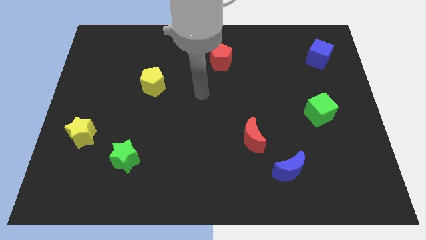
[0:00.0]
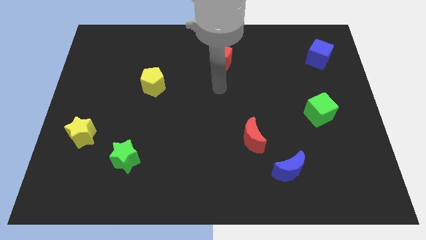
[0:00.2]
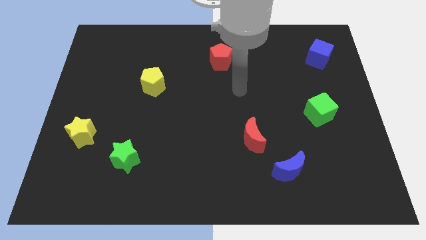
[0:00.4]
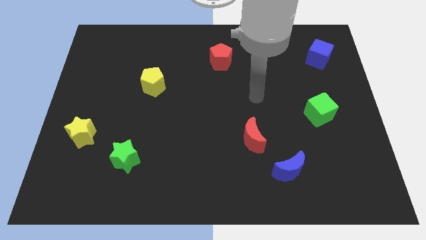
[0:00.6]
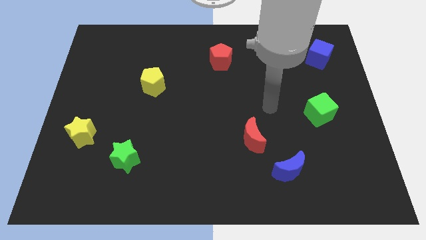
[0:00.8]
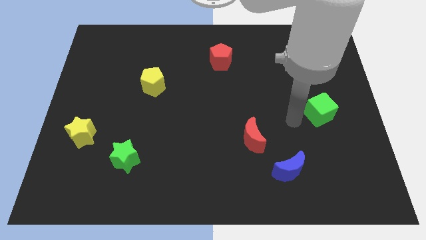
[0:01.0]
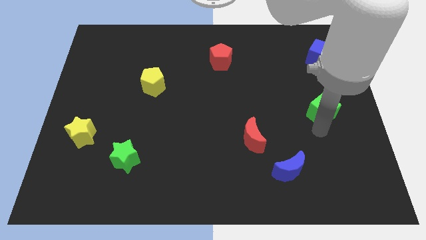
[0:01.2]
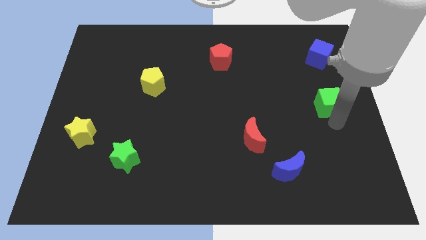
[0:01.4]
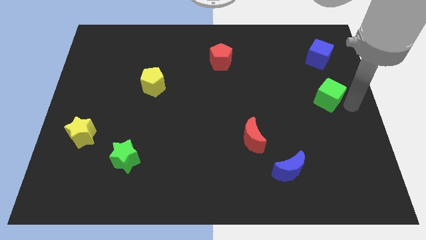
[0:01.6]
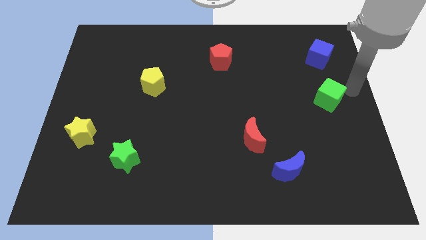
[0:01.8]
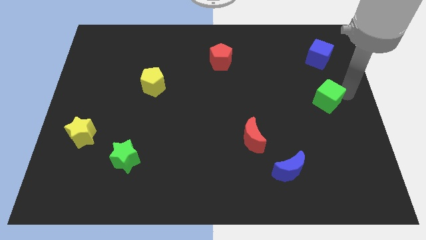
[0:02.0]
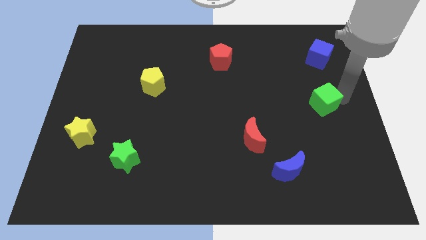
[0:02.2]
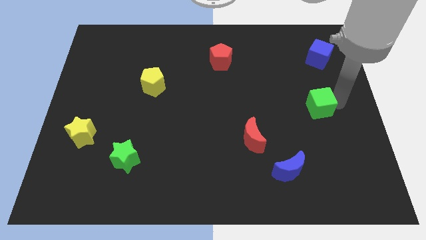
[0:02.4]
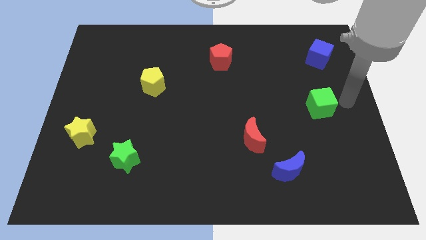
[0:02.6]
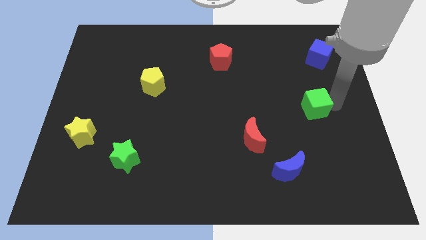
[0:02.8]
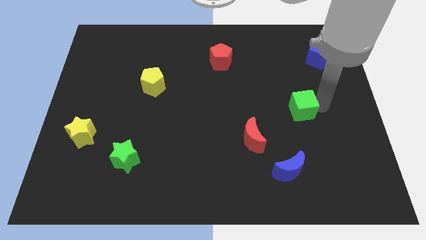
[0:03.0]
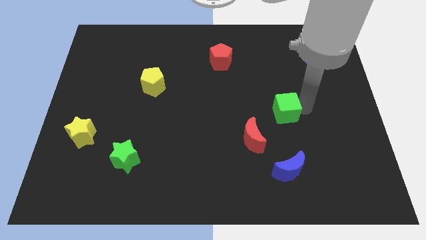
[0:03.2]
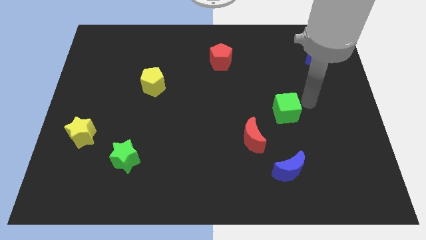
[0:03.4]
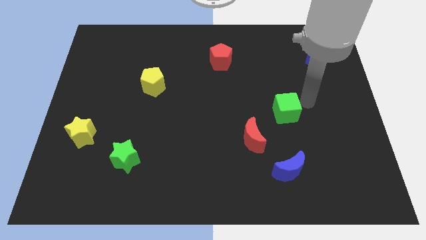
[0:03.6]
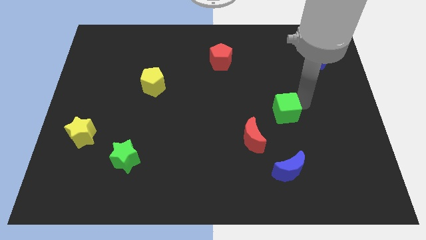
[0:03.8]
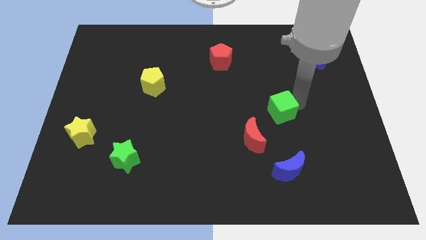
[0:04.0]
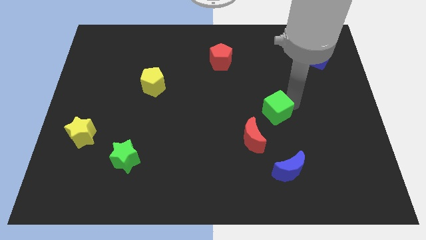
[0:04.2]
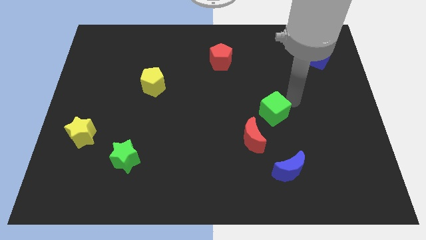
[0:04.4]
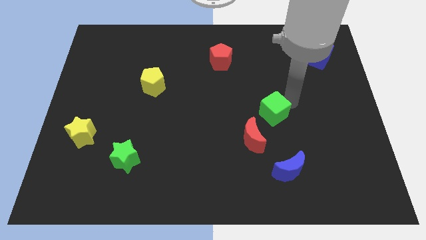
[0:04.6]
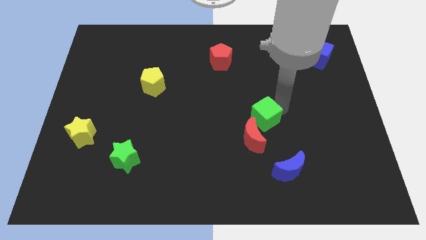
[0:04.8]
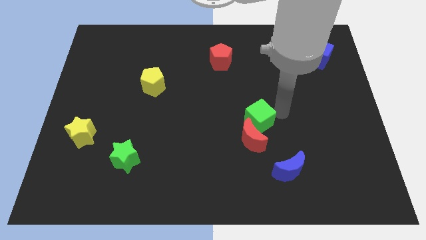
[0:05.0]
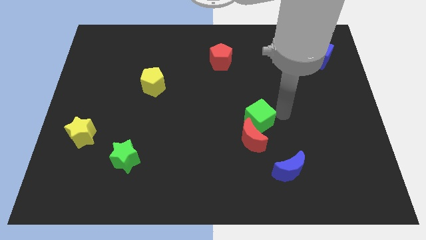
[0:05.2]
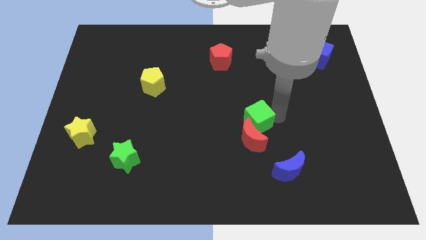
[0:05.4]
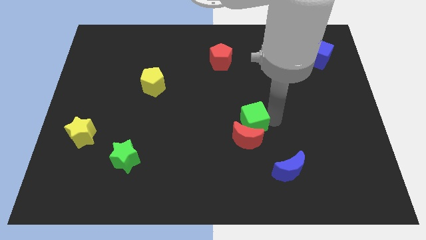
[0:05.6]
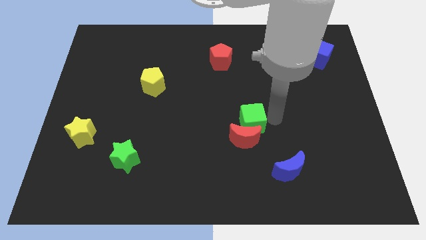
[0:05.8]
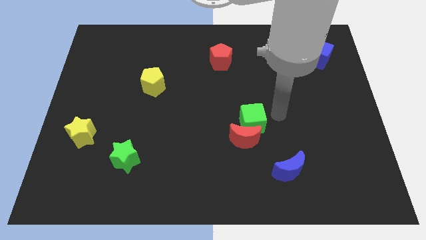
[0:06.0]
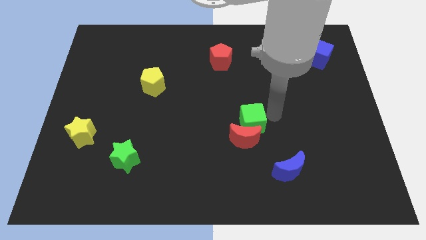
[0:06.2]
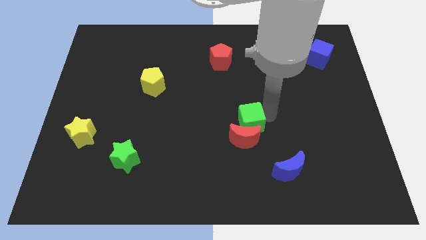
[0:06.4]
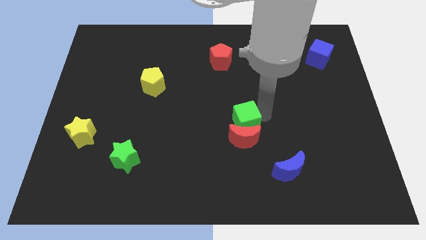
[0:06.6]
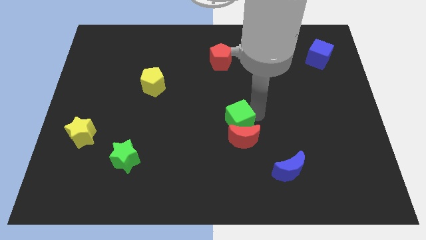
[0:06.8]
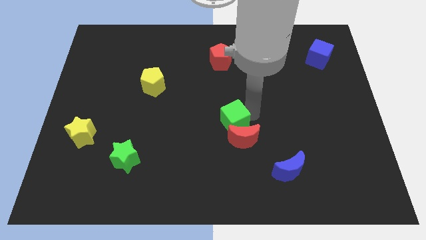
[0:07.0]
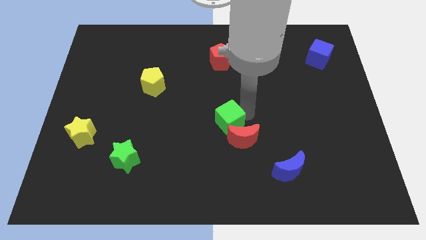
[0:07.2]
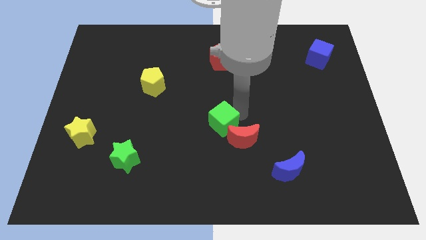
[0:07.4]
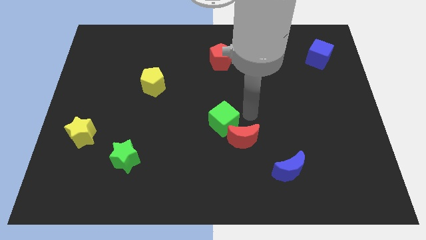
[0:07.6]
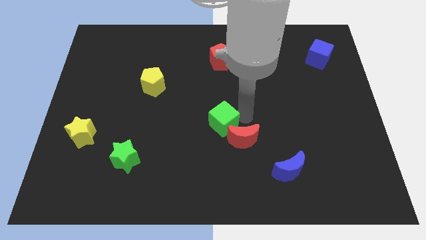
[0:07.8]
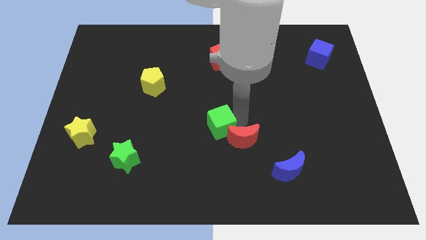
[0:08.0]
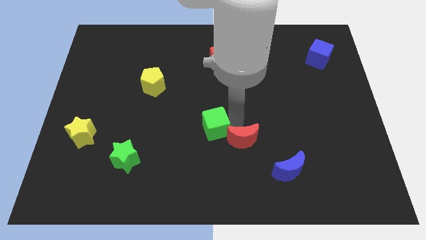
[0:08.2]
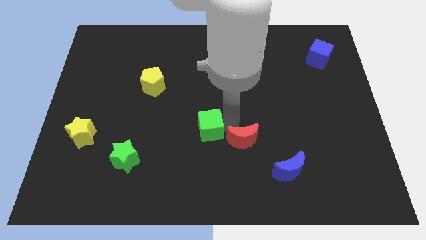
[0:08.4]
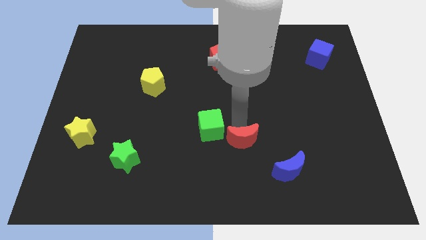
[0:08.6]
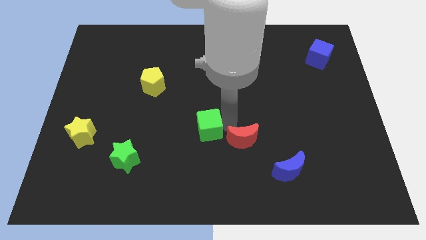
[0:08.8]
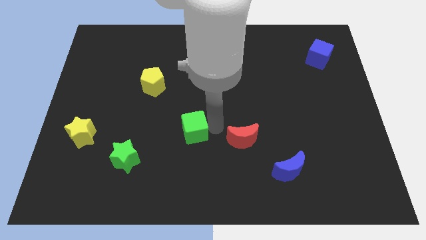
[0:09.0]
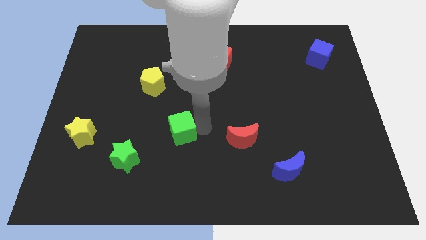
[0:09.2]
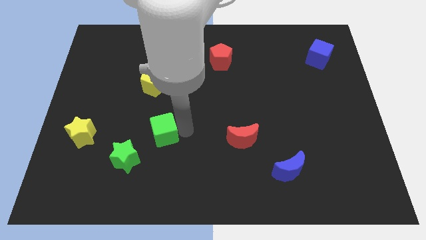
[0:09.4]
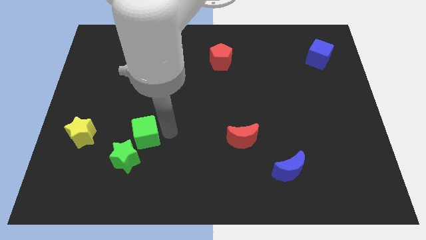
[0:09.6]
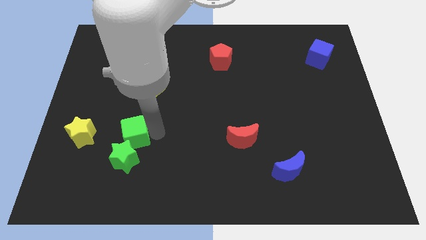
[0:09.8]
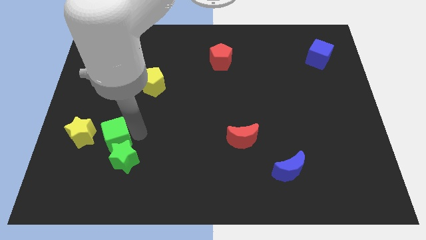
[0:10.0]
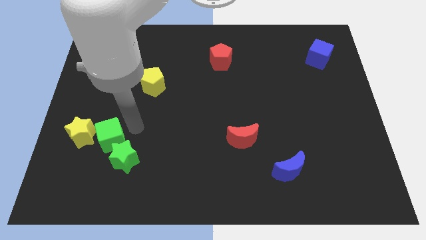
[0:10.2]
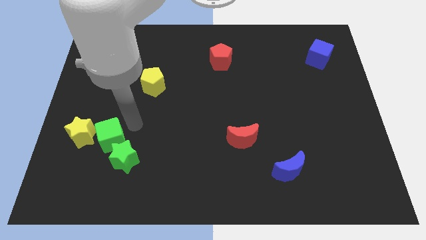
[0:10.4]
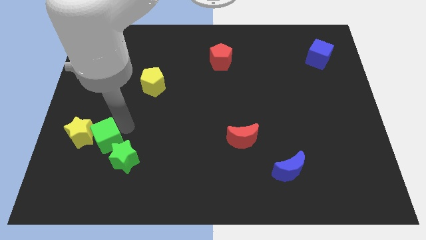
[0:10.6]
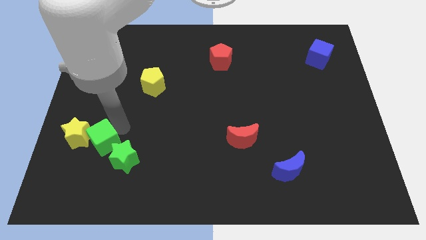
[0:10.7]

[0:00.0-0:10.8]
slide the green cube left of the green star

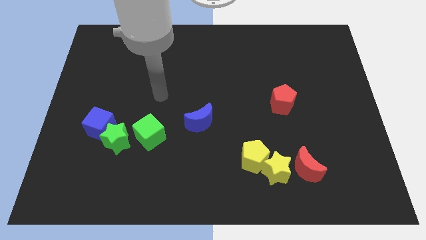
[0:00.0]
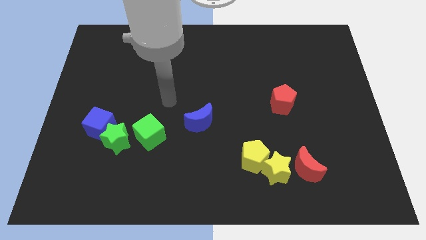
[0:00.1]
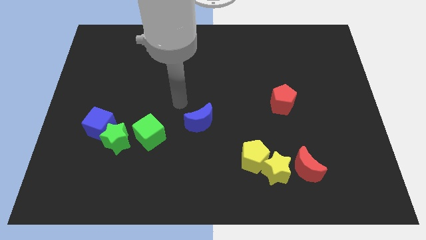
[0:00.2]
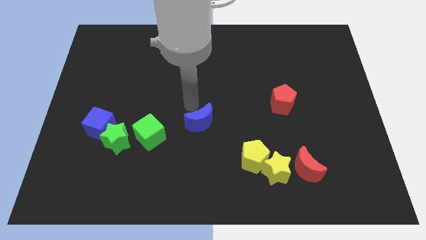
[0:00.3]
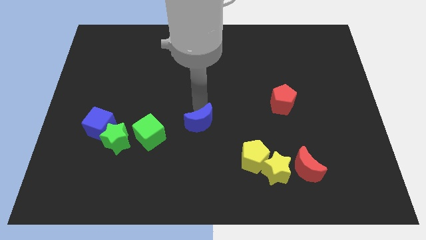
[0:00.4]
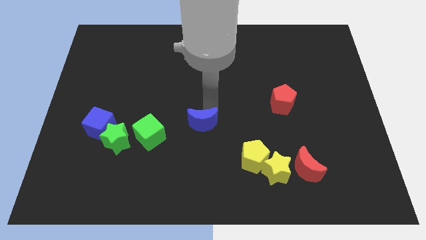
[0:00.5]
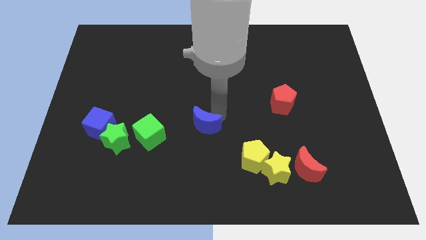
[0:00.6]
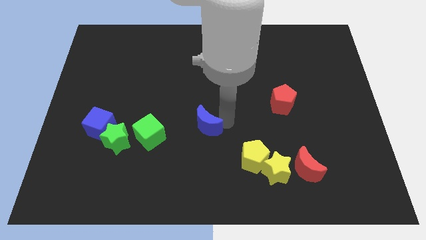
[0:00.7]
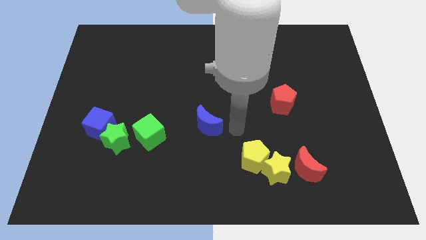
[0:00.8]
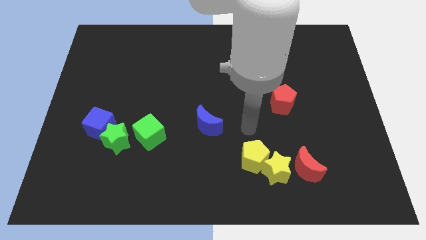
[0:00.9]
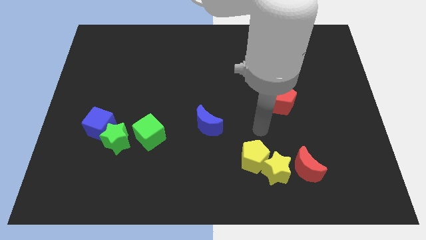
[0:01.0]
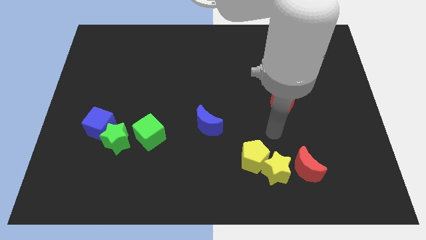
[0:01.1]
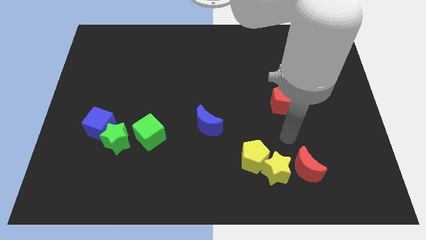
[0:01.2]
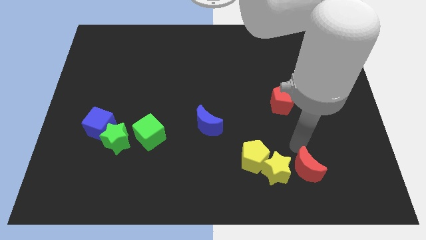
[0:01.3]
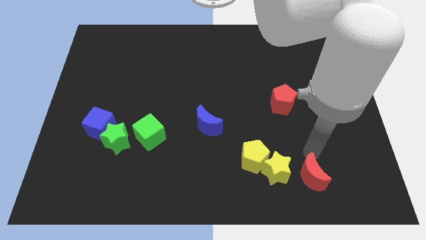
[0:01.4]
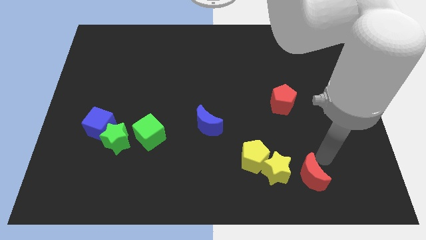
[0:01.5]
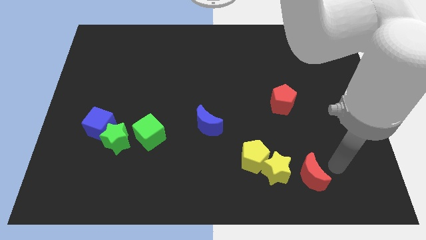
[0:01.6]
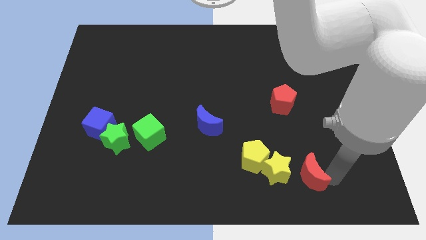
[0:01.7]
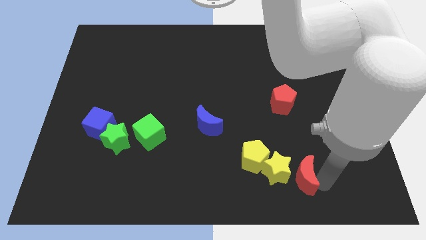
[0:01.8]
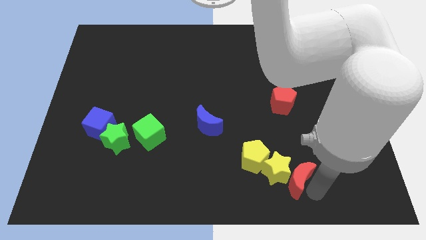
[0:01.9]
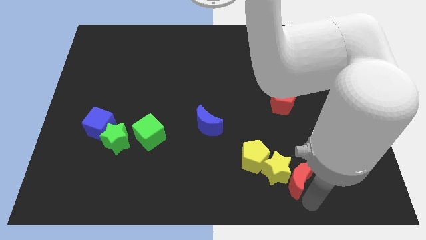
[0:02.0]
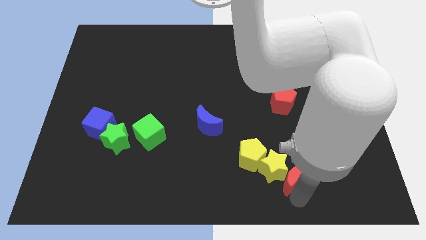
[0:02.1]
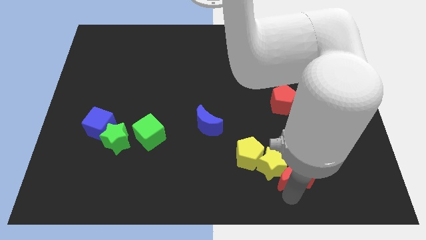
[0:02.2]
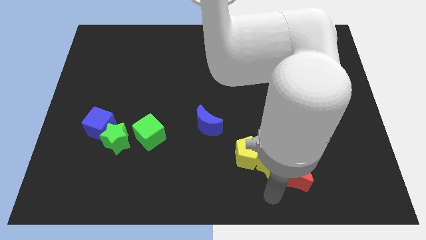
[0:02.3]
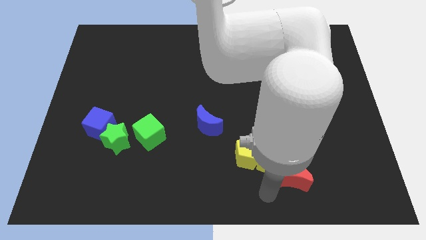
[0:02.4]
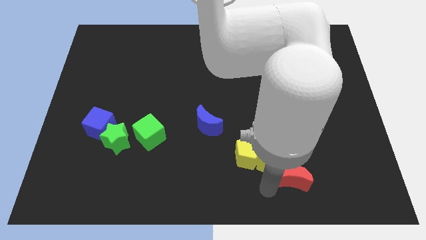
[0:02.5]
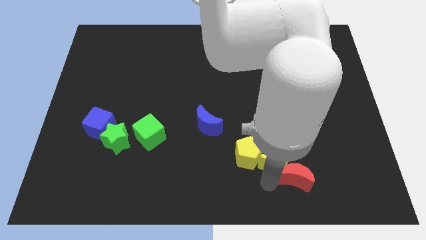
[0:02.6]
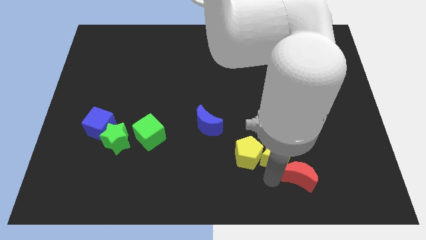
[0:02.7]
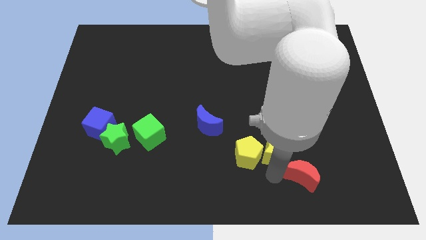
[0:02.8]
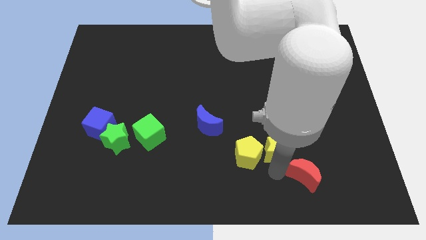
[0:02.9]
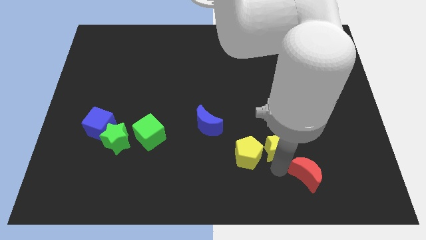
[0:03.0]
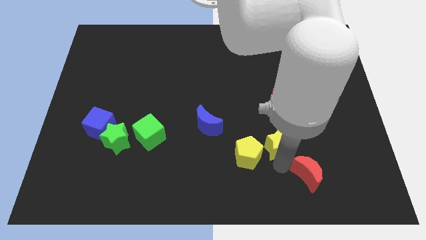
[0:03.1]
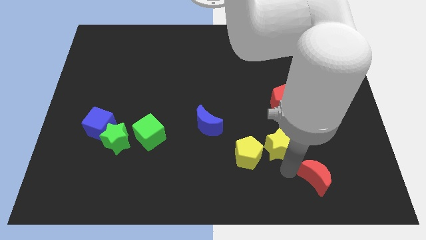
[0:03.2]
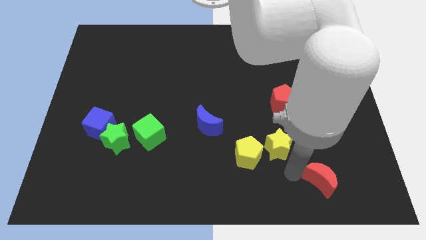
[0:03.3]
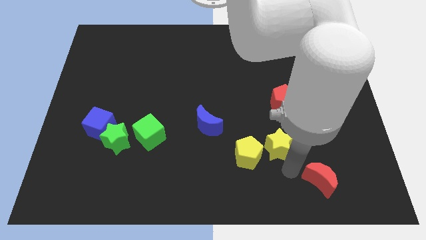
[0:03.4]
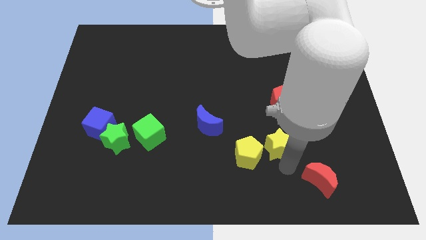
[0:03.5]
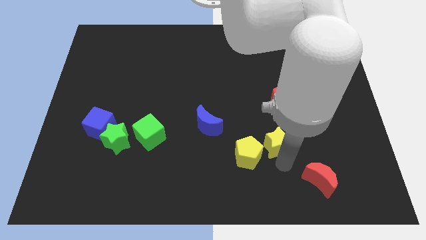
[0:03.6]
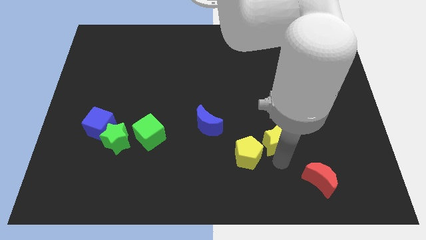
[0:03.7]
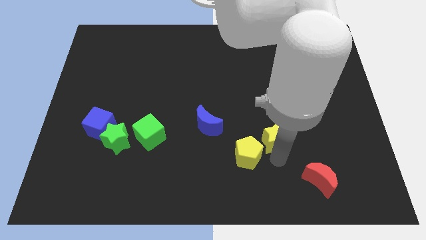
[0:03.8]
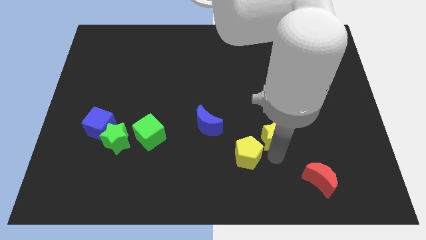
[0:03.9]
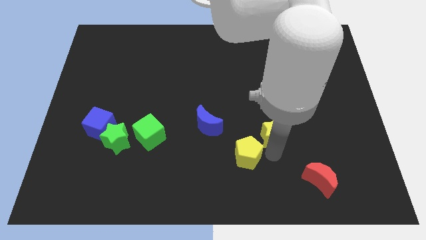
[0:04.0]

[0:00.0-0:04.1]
slide the yellow star to the bottom left of the red pentagon
